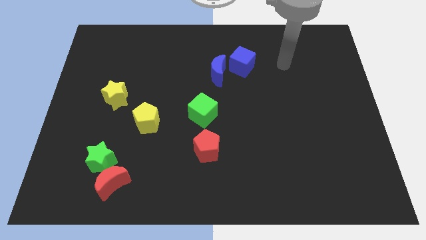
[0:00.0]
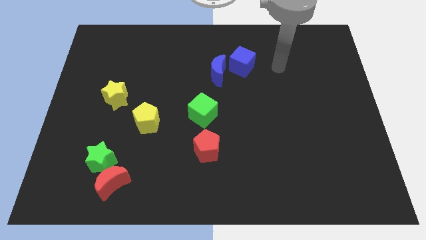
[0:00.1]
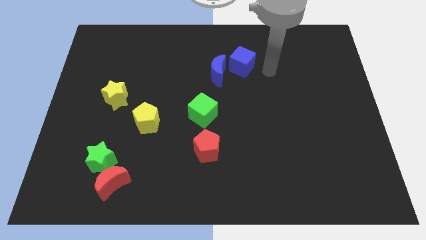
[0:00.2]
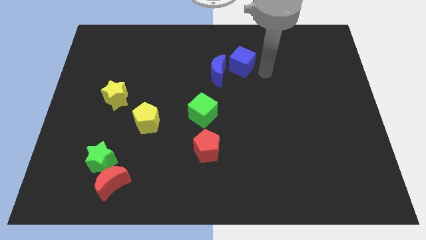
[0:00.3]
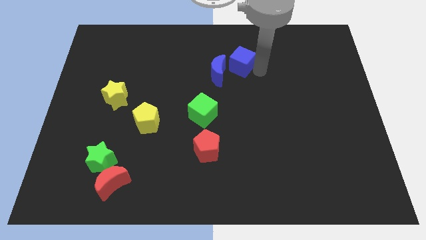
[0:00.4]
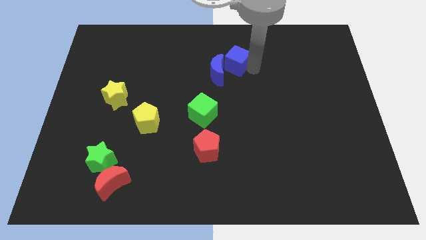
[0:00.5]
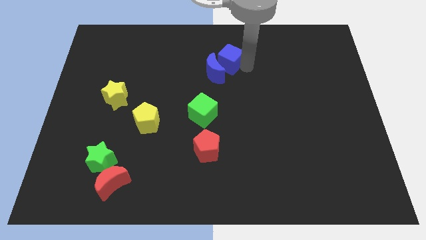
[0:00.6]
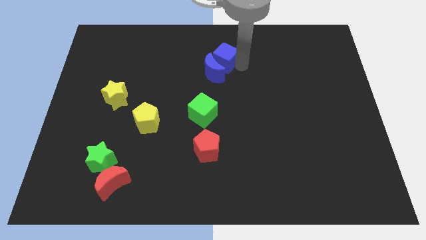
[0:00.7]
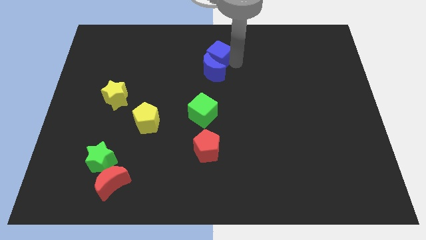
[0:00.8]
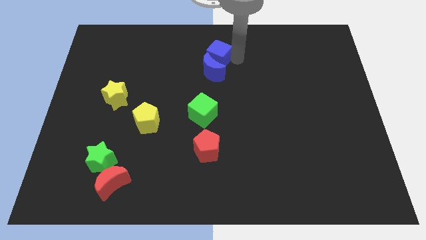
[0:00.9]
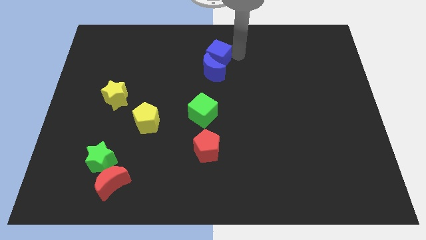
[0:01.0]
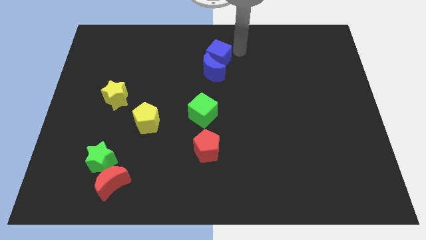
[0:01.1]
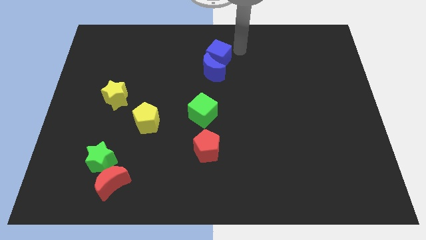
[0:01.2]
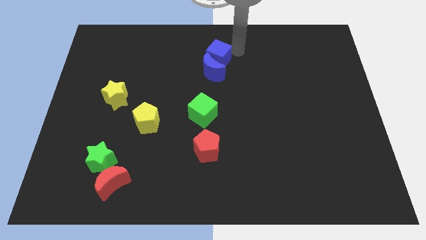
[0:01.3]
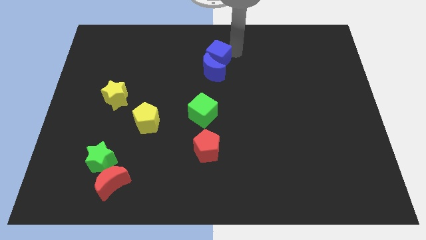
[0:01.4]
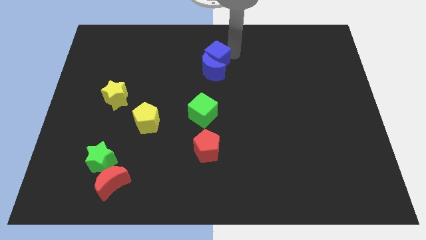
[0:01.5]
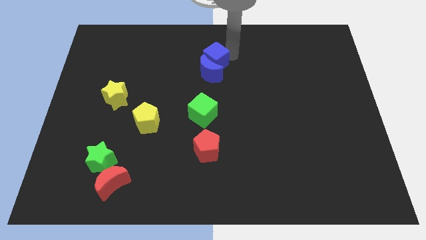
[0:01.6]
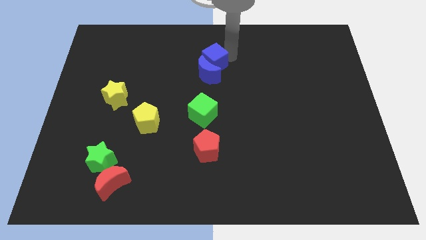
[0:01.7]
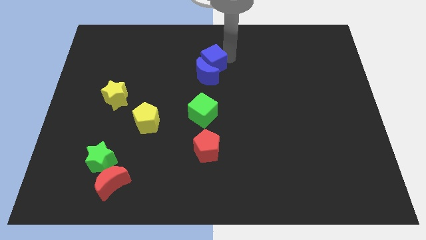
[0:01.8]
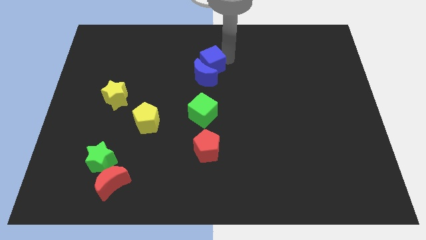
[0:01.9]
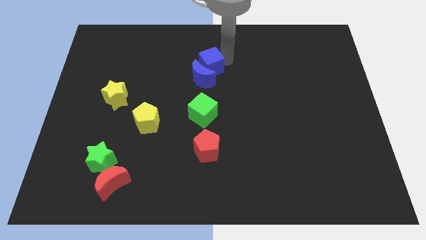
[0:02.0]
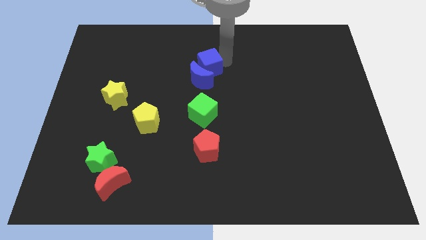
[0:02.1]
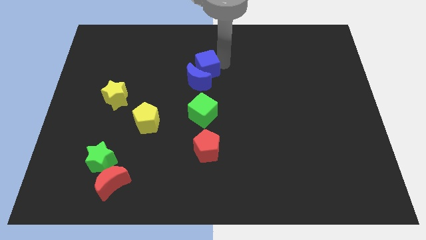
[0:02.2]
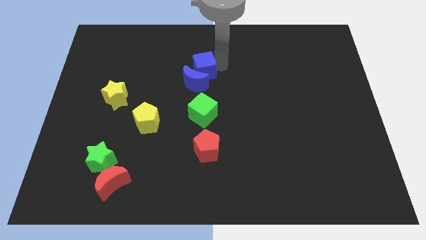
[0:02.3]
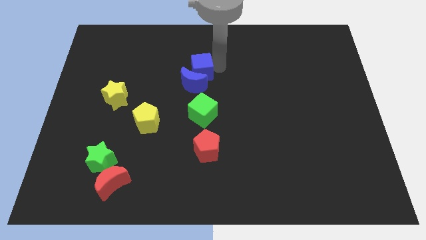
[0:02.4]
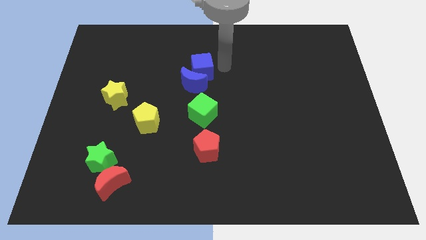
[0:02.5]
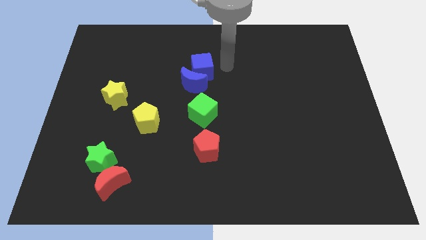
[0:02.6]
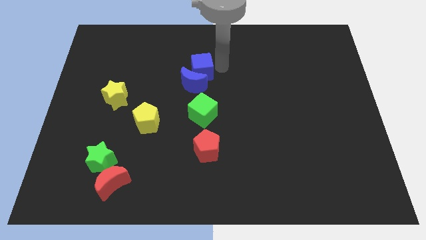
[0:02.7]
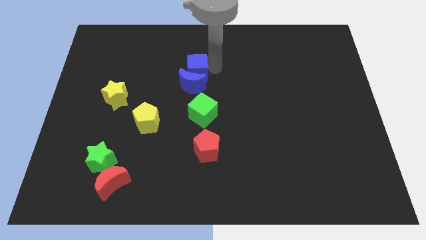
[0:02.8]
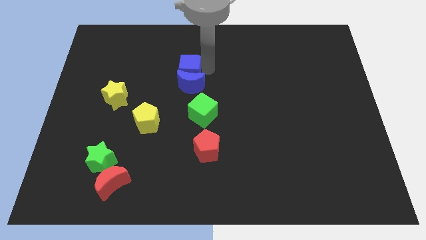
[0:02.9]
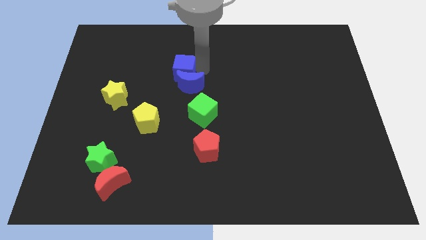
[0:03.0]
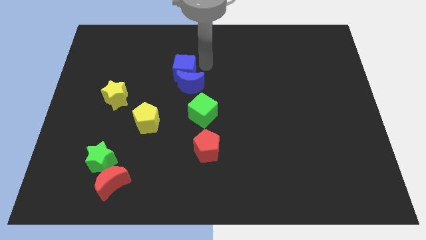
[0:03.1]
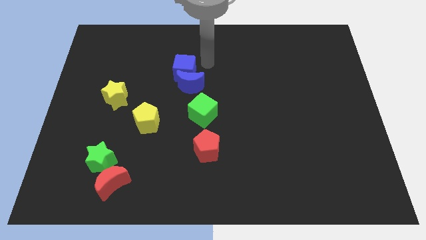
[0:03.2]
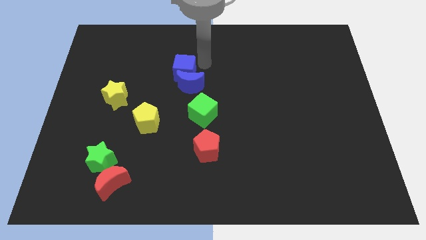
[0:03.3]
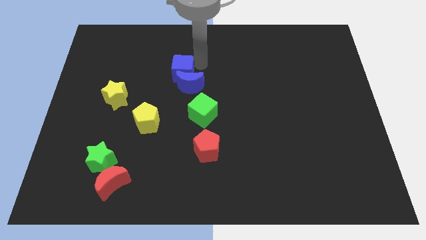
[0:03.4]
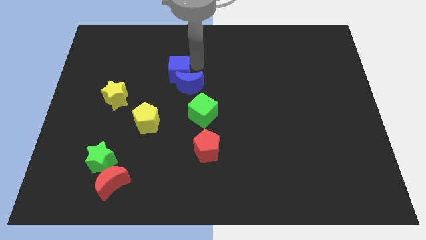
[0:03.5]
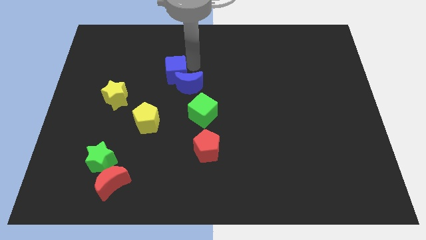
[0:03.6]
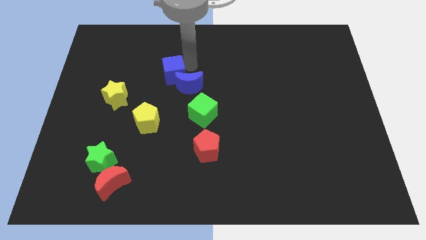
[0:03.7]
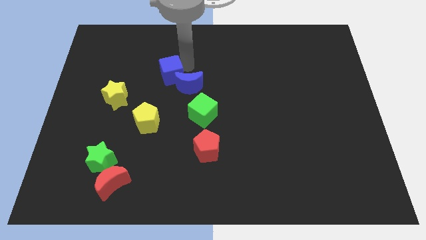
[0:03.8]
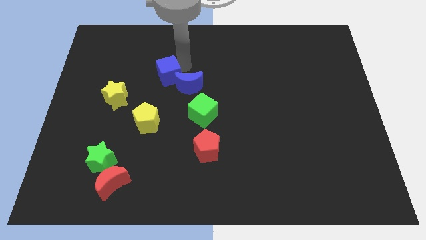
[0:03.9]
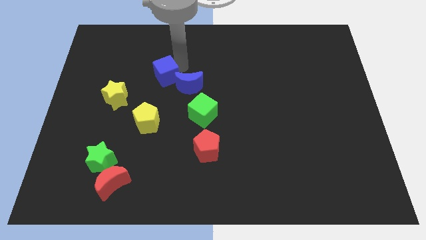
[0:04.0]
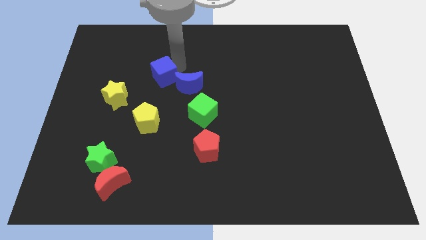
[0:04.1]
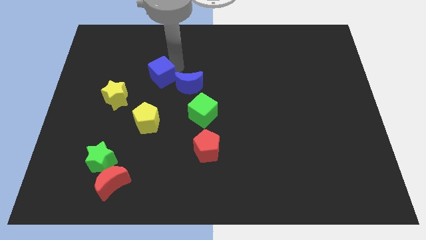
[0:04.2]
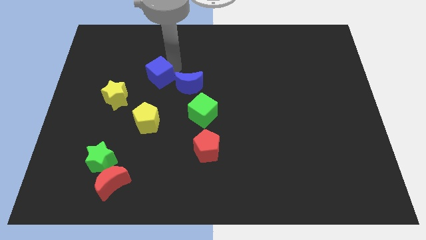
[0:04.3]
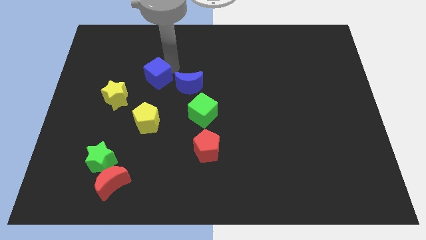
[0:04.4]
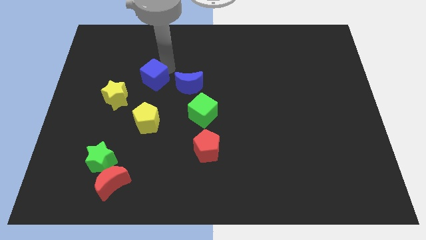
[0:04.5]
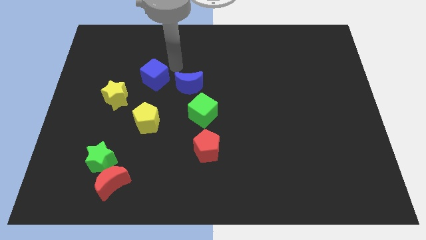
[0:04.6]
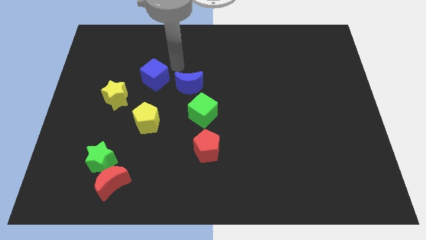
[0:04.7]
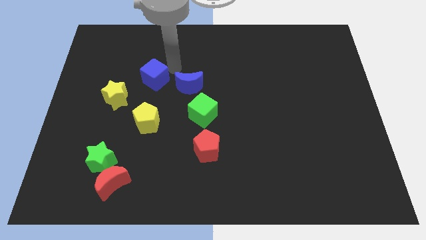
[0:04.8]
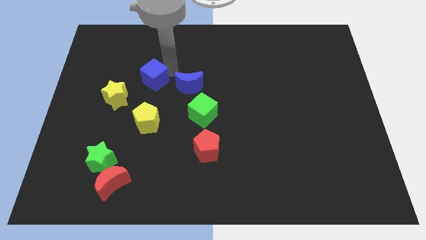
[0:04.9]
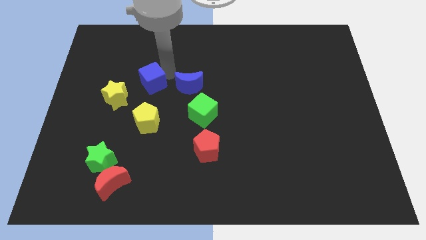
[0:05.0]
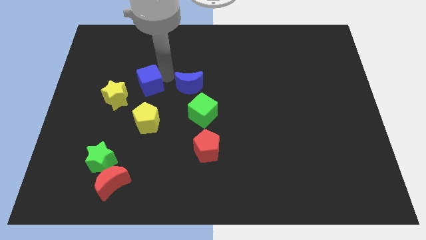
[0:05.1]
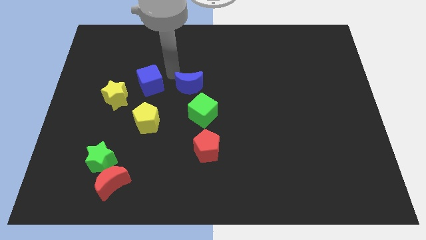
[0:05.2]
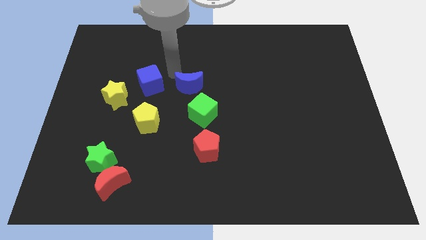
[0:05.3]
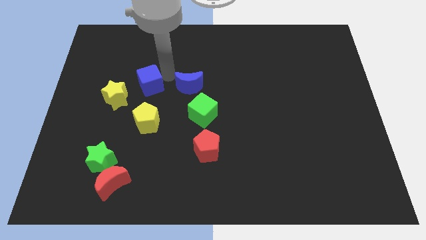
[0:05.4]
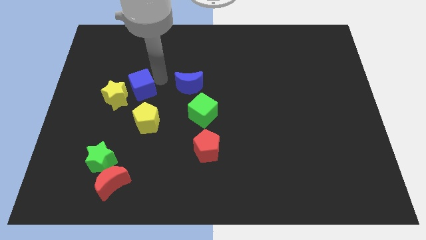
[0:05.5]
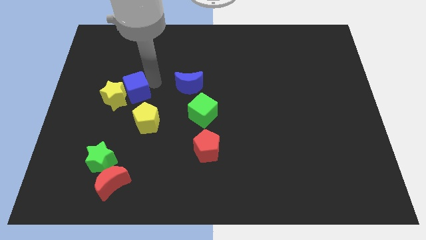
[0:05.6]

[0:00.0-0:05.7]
push the blue cube to the yellow star

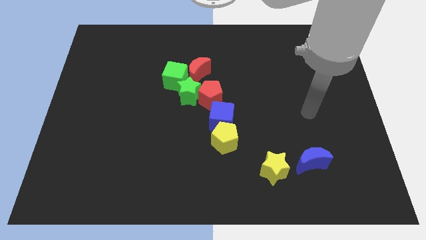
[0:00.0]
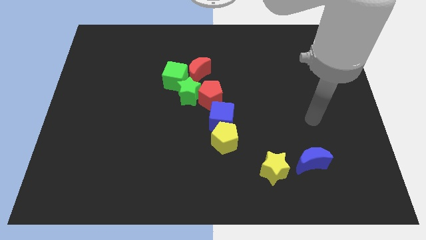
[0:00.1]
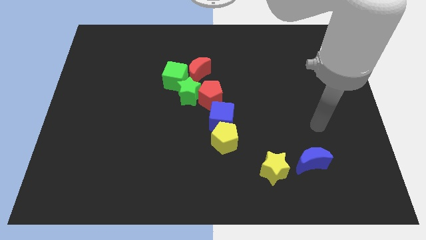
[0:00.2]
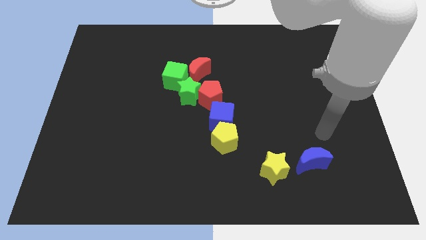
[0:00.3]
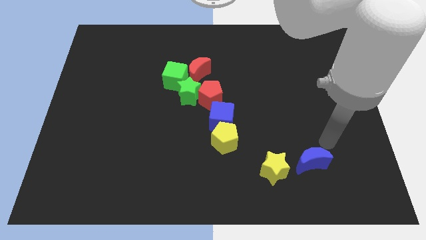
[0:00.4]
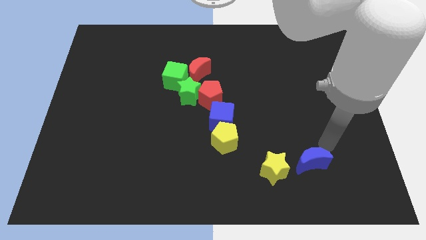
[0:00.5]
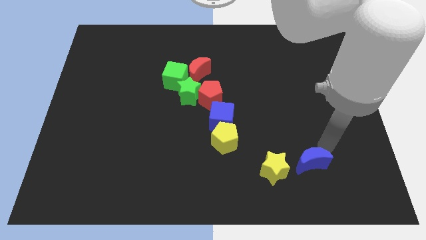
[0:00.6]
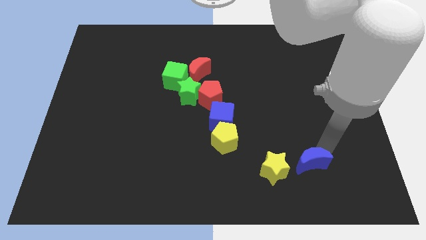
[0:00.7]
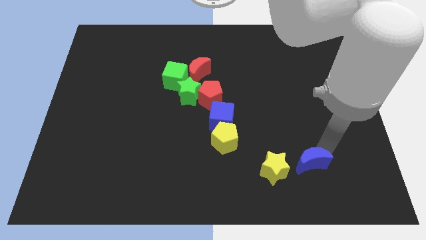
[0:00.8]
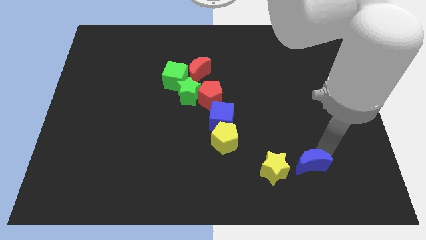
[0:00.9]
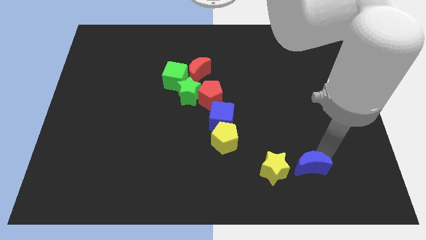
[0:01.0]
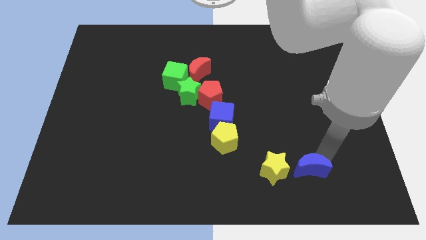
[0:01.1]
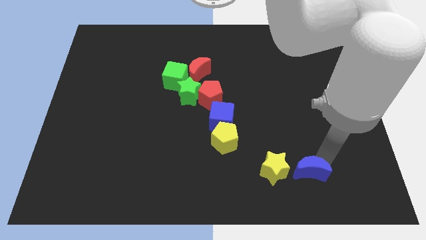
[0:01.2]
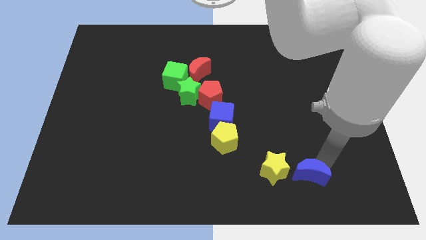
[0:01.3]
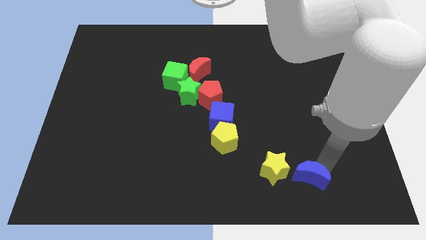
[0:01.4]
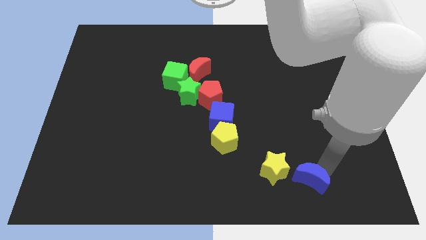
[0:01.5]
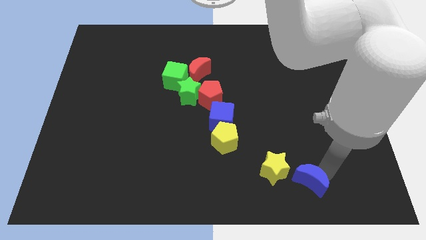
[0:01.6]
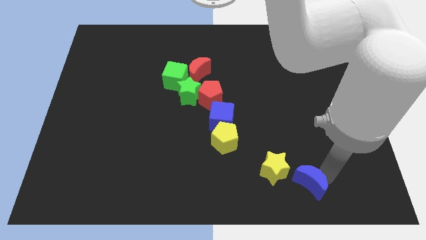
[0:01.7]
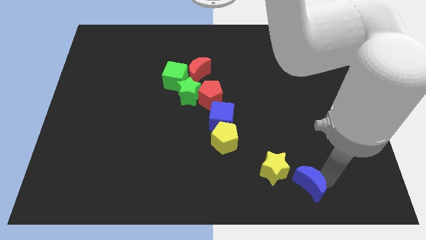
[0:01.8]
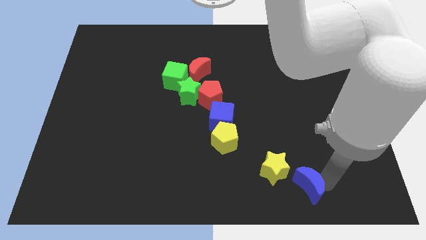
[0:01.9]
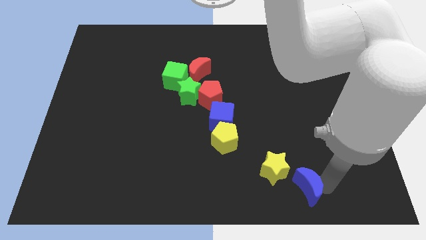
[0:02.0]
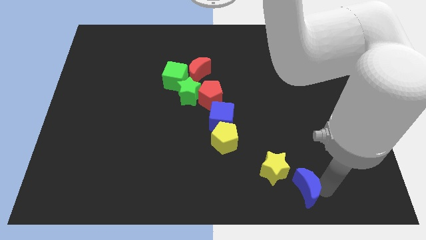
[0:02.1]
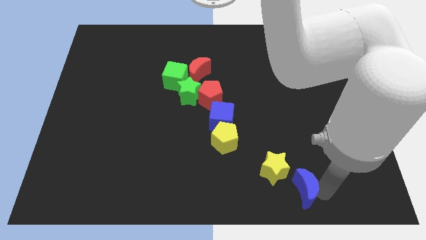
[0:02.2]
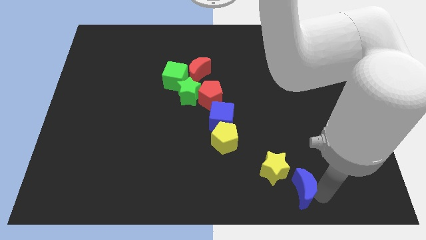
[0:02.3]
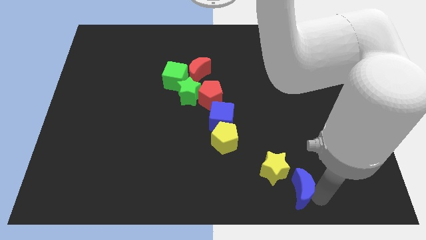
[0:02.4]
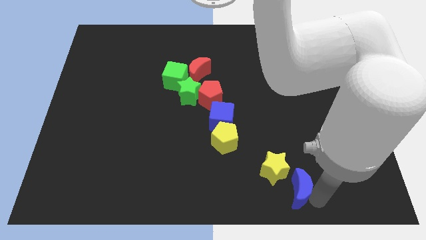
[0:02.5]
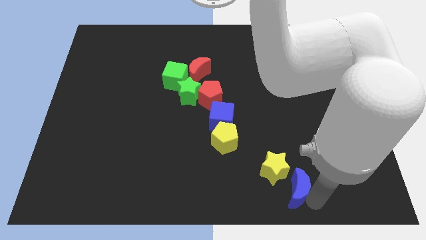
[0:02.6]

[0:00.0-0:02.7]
move the blue moon next to the yellow star
